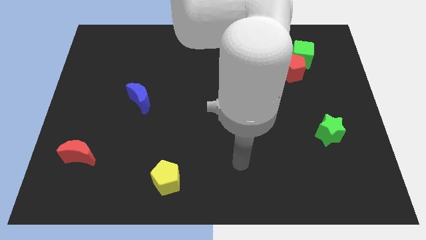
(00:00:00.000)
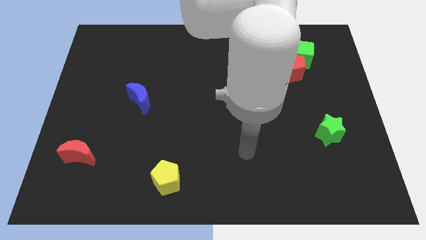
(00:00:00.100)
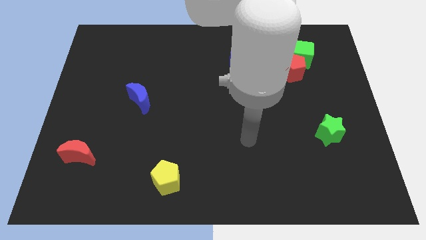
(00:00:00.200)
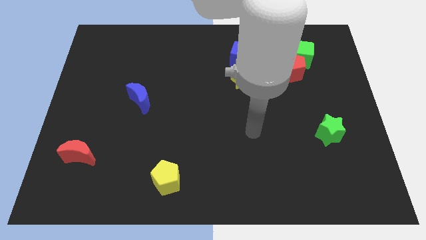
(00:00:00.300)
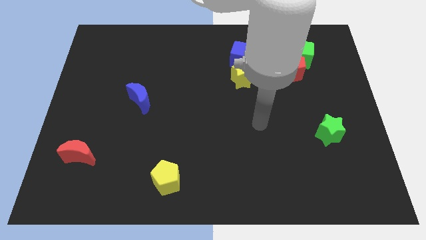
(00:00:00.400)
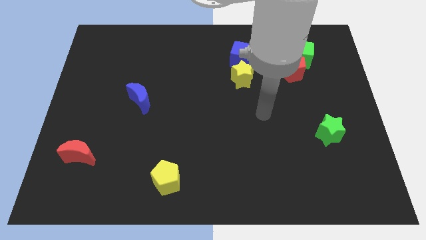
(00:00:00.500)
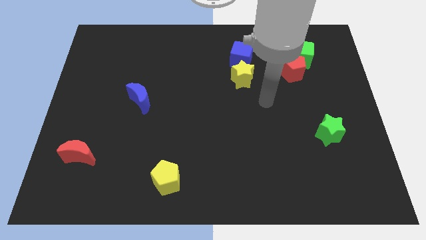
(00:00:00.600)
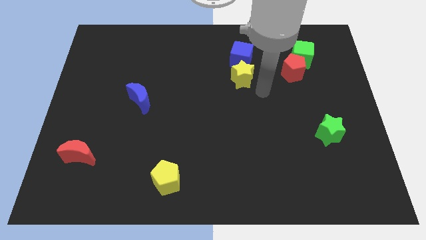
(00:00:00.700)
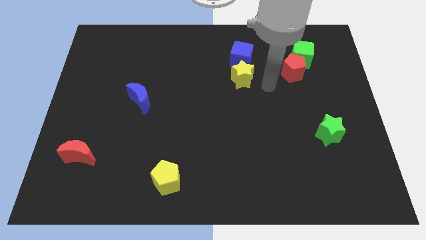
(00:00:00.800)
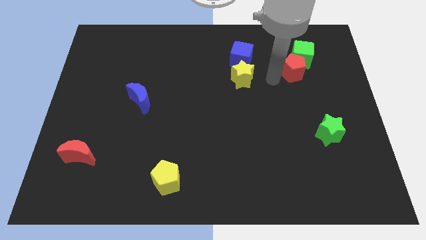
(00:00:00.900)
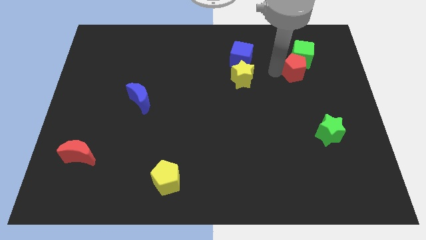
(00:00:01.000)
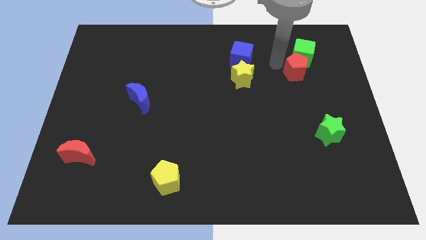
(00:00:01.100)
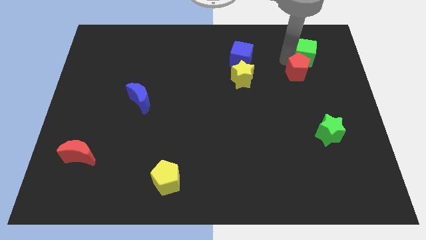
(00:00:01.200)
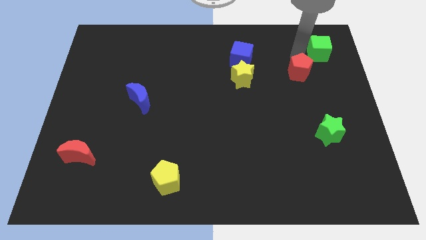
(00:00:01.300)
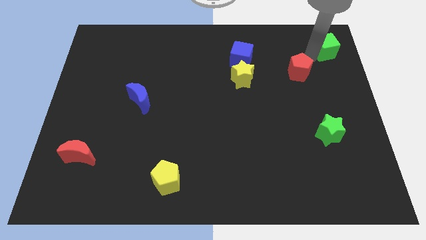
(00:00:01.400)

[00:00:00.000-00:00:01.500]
move the red pentagon away from the green cube

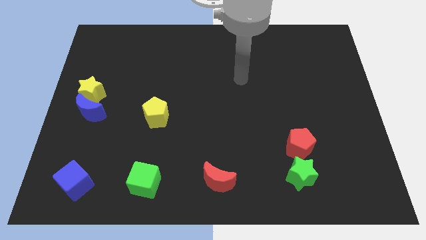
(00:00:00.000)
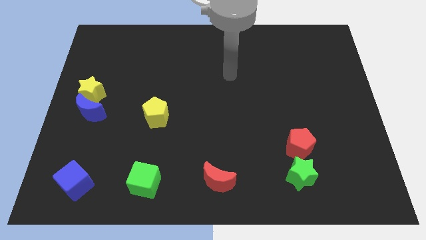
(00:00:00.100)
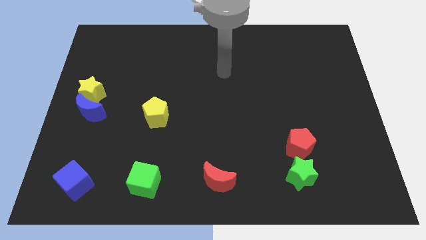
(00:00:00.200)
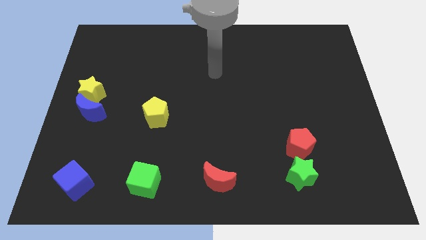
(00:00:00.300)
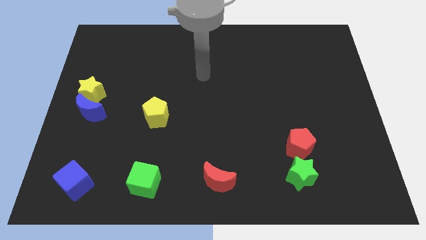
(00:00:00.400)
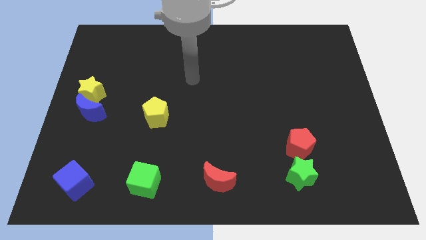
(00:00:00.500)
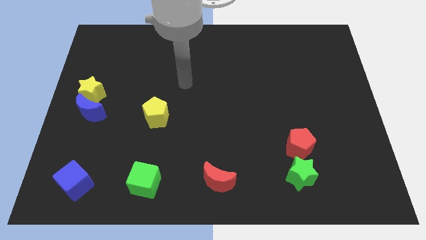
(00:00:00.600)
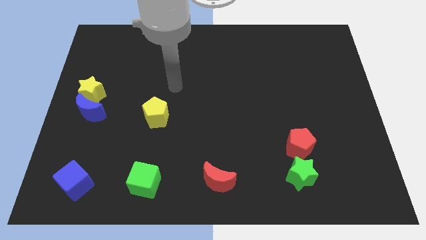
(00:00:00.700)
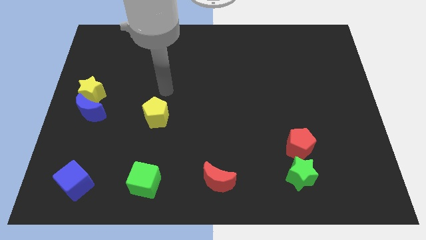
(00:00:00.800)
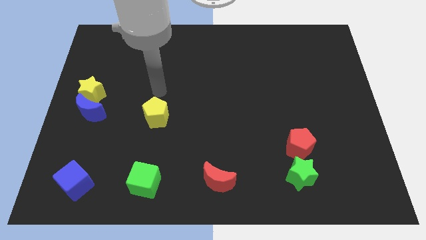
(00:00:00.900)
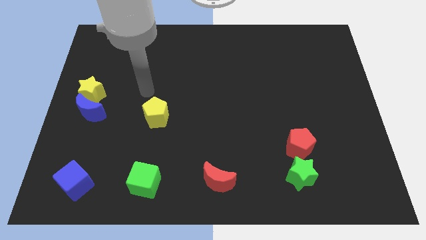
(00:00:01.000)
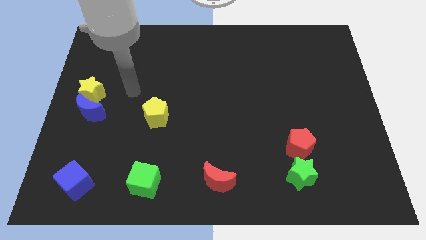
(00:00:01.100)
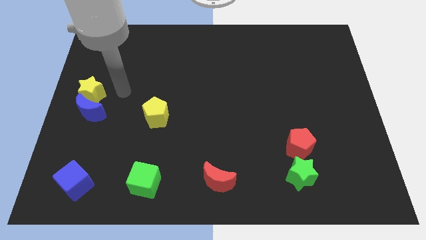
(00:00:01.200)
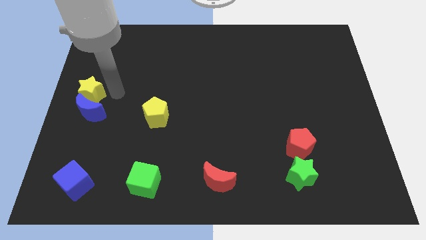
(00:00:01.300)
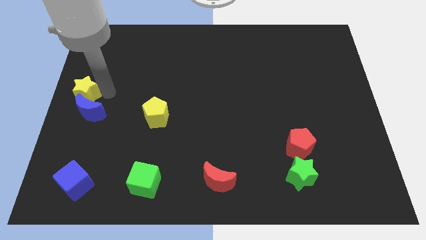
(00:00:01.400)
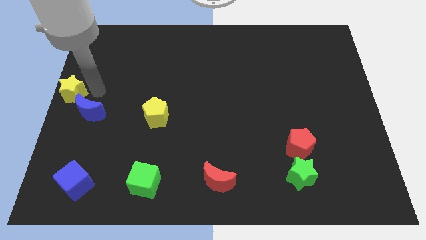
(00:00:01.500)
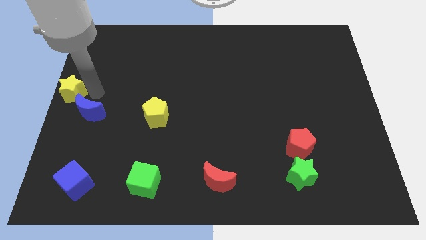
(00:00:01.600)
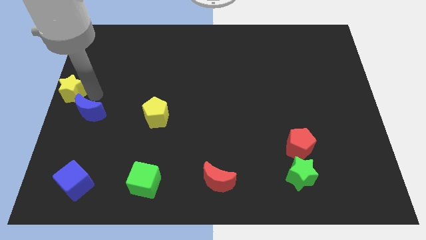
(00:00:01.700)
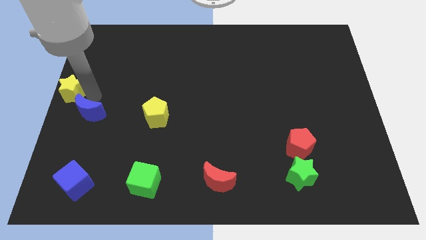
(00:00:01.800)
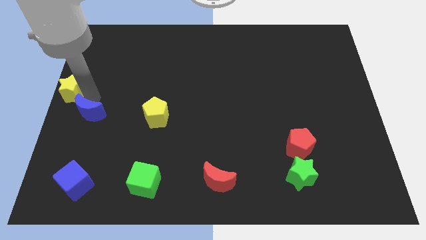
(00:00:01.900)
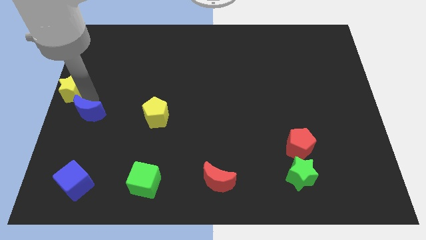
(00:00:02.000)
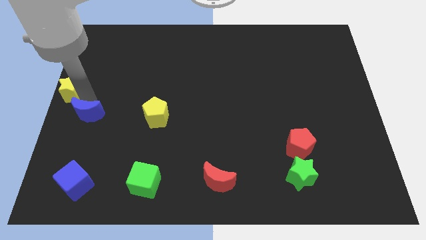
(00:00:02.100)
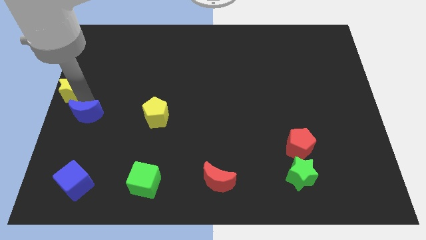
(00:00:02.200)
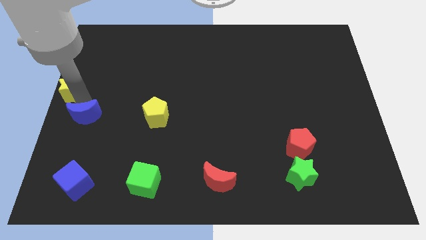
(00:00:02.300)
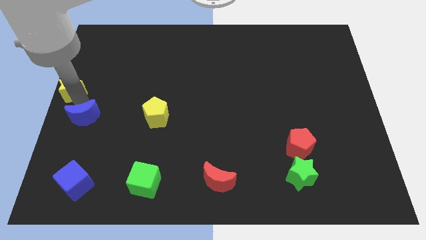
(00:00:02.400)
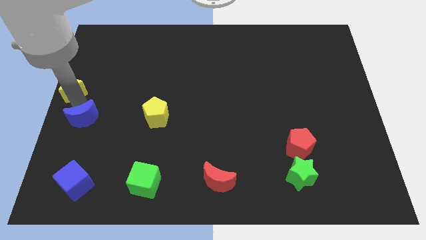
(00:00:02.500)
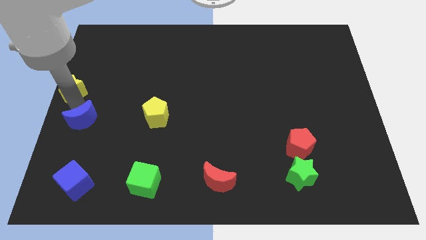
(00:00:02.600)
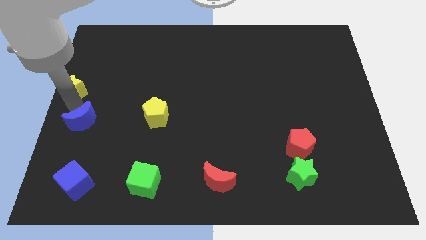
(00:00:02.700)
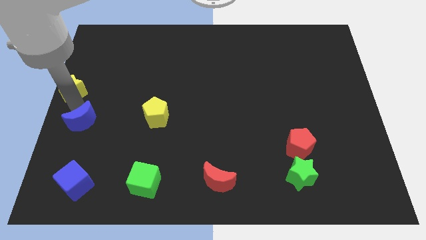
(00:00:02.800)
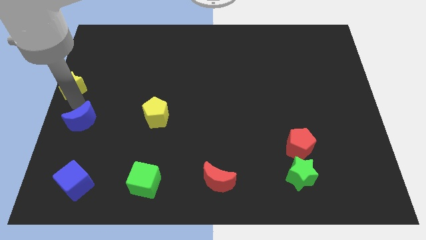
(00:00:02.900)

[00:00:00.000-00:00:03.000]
move the blue moon away from the yellow star

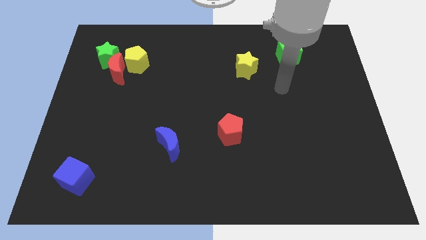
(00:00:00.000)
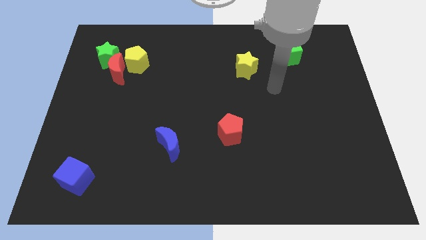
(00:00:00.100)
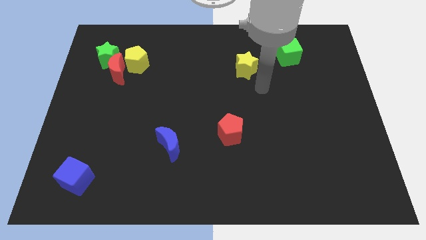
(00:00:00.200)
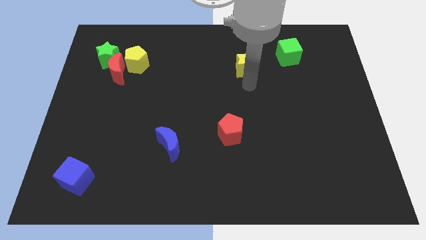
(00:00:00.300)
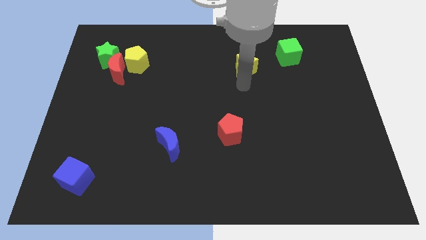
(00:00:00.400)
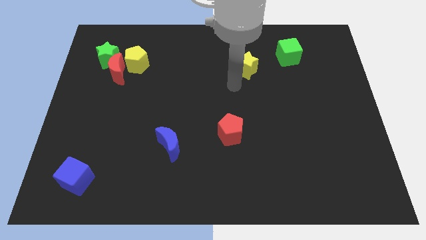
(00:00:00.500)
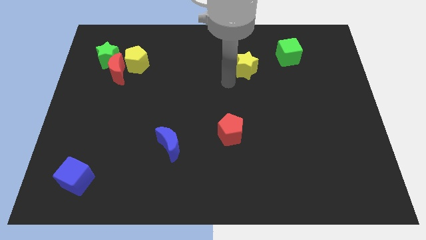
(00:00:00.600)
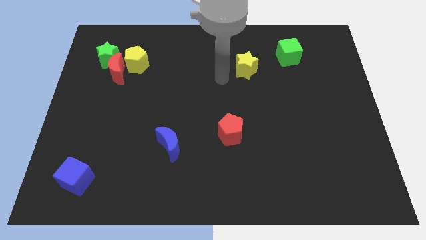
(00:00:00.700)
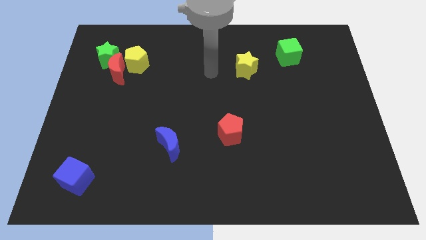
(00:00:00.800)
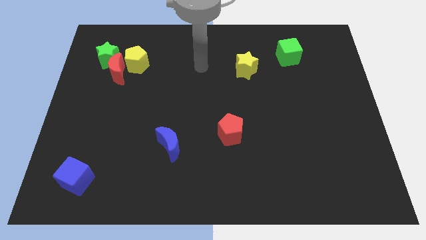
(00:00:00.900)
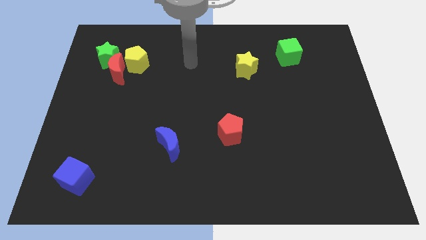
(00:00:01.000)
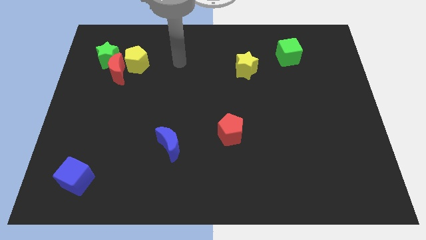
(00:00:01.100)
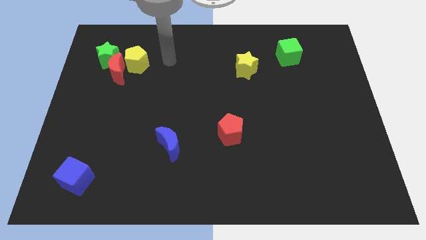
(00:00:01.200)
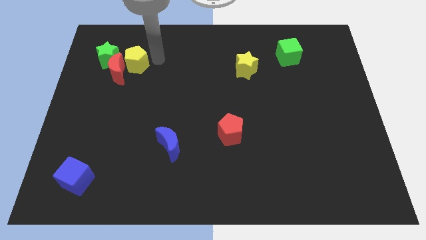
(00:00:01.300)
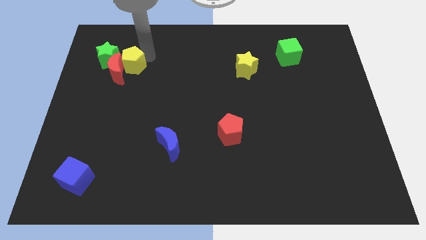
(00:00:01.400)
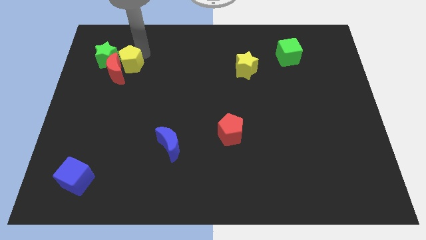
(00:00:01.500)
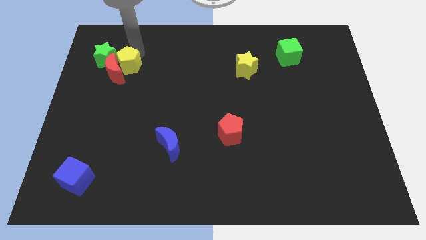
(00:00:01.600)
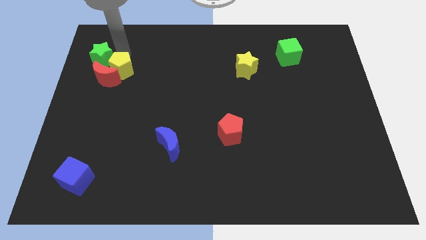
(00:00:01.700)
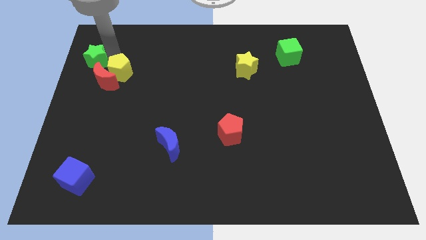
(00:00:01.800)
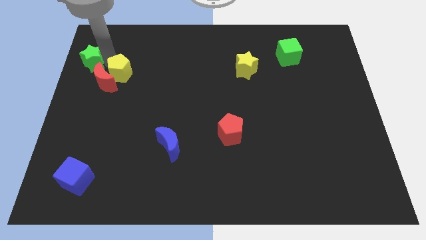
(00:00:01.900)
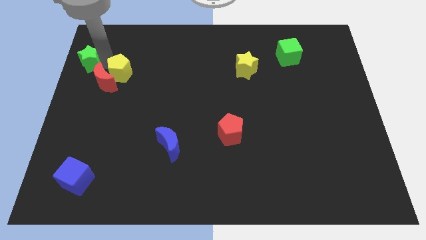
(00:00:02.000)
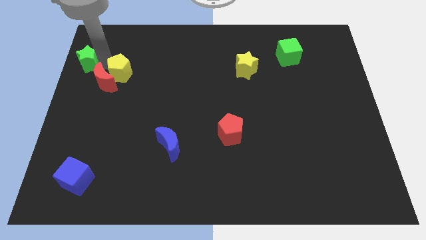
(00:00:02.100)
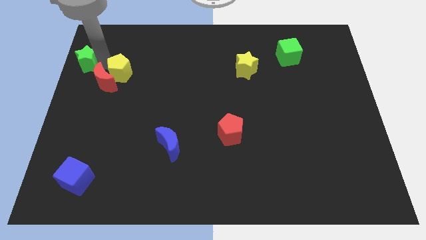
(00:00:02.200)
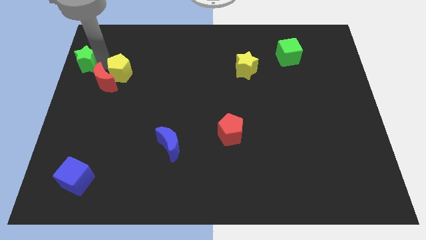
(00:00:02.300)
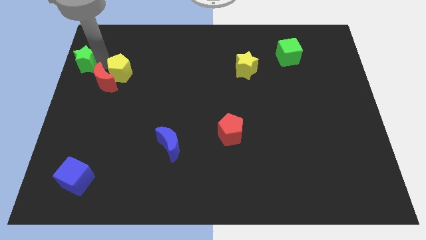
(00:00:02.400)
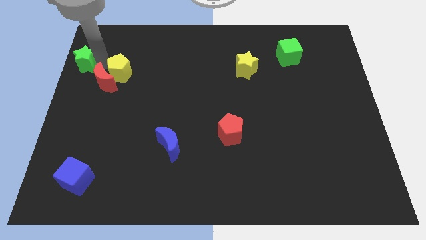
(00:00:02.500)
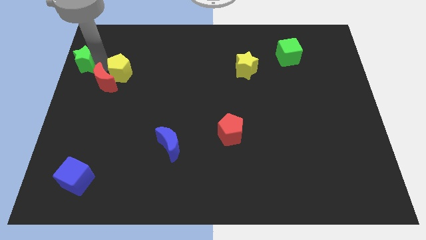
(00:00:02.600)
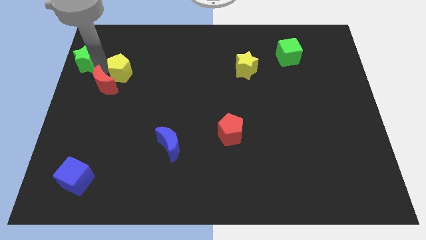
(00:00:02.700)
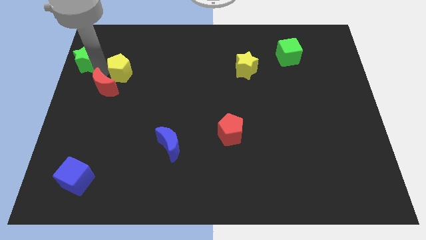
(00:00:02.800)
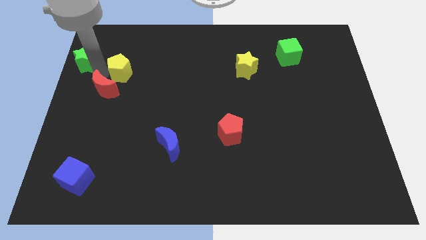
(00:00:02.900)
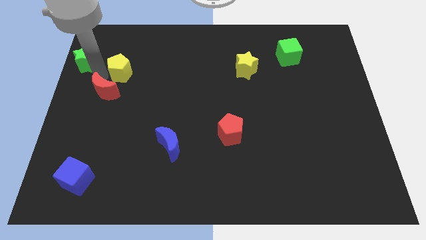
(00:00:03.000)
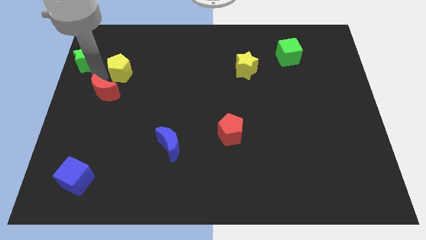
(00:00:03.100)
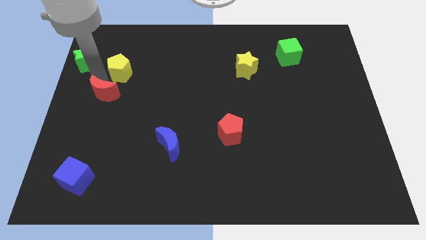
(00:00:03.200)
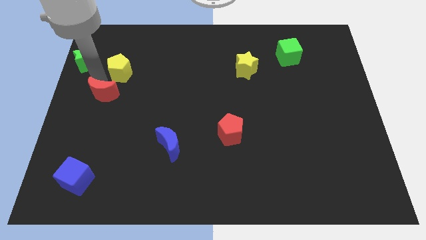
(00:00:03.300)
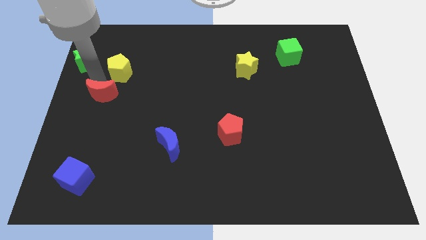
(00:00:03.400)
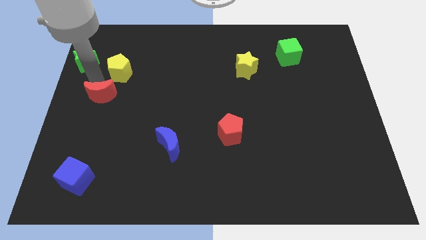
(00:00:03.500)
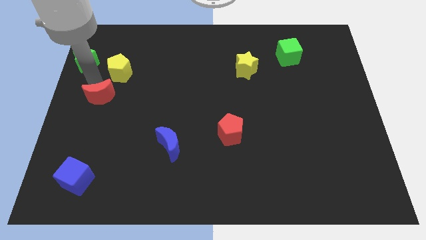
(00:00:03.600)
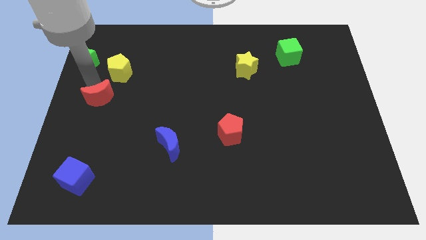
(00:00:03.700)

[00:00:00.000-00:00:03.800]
move the red moon away from the green star and yellow pentagon

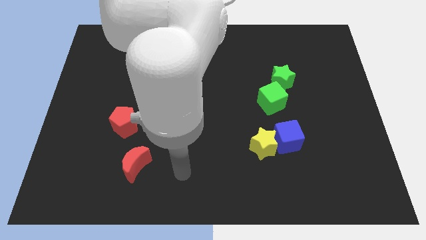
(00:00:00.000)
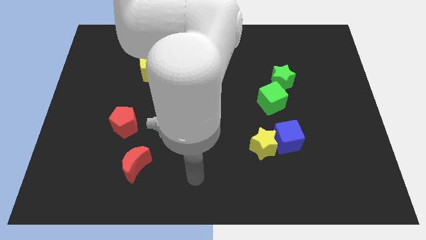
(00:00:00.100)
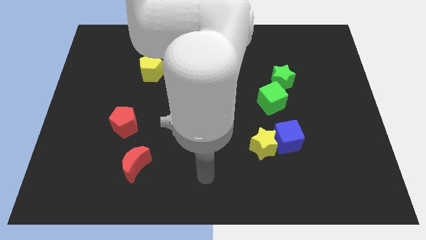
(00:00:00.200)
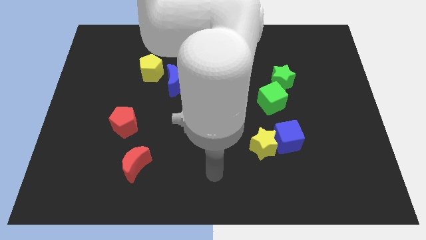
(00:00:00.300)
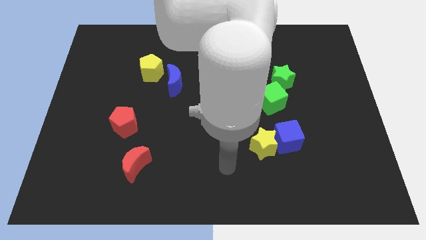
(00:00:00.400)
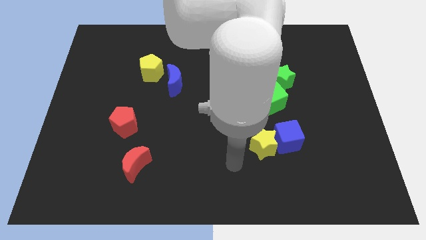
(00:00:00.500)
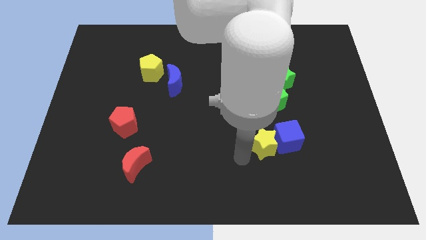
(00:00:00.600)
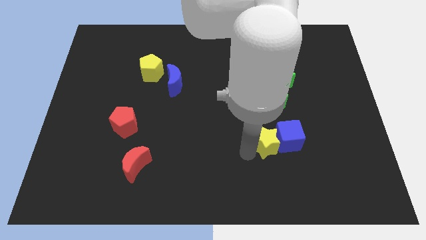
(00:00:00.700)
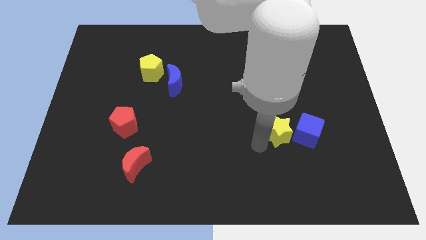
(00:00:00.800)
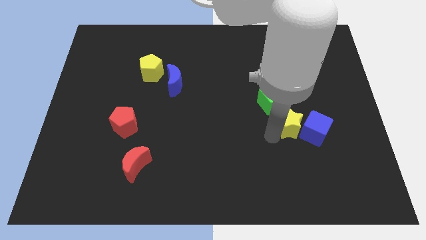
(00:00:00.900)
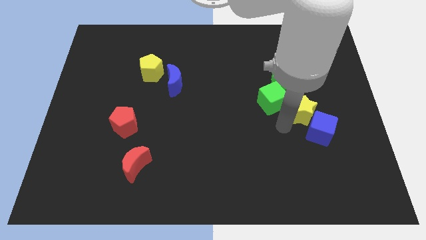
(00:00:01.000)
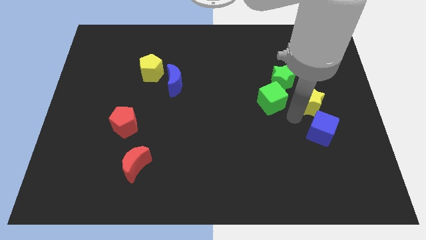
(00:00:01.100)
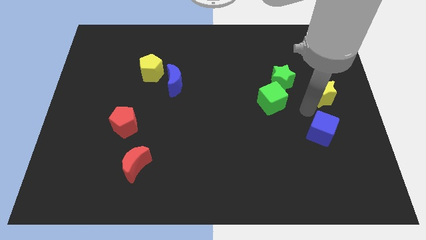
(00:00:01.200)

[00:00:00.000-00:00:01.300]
move the blue cube away from the yellow star
